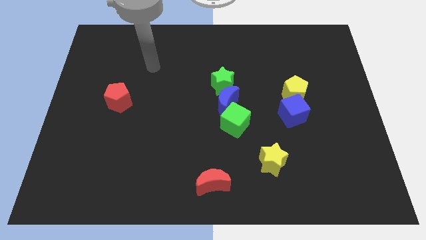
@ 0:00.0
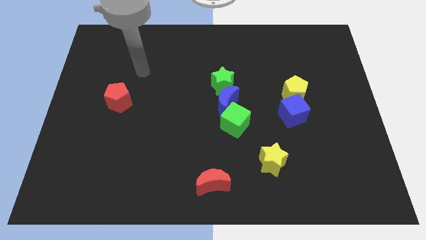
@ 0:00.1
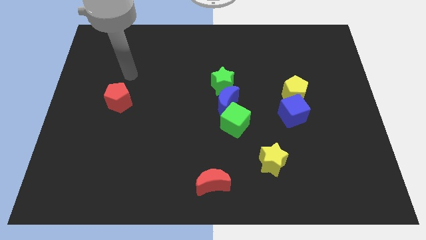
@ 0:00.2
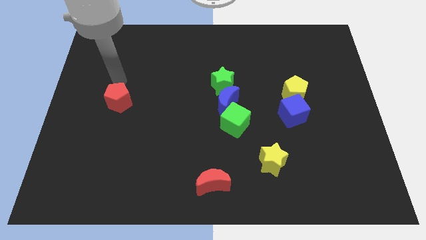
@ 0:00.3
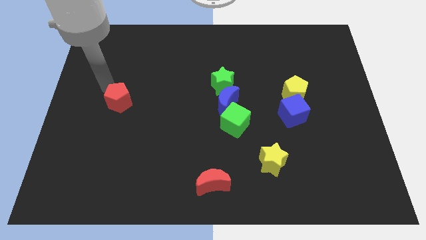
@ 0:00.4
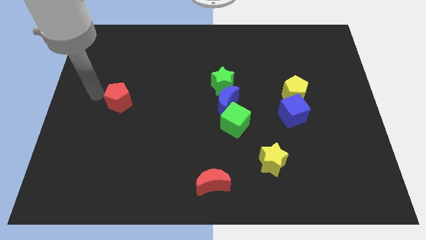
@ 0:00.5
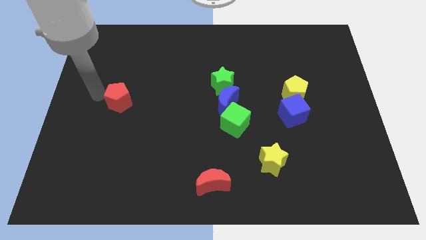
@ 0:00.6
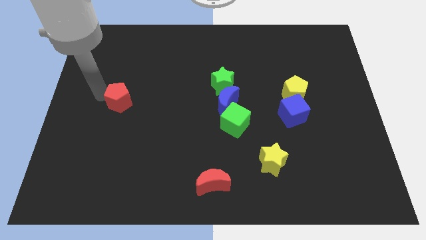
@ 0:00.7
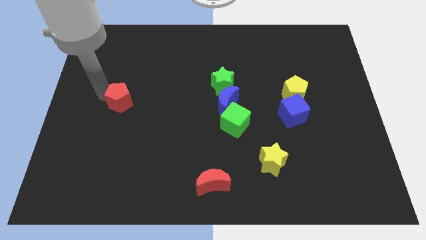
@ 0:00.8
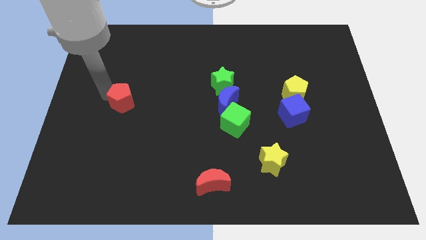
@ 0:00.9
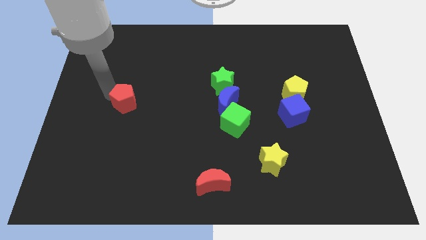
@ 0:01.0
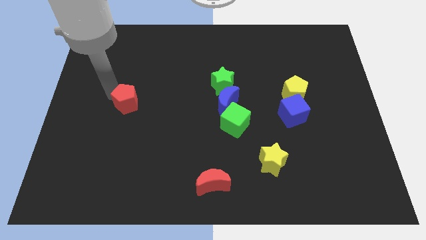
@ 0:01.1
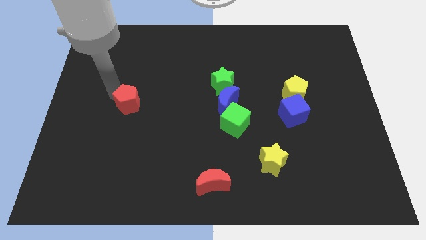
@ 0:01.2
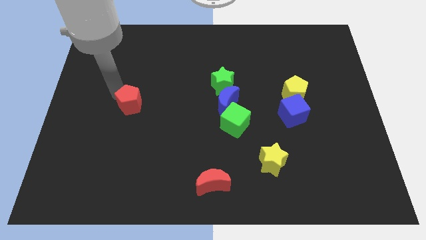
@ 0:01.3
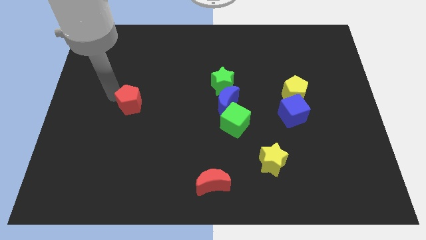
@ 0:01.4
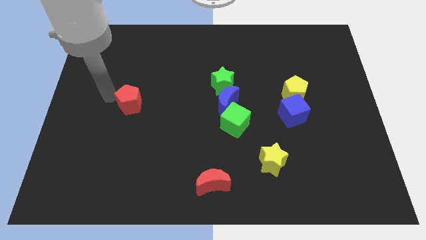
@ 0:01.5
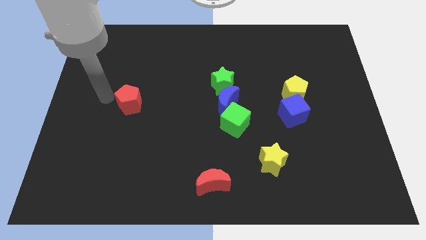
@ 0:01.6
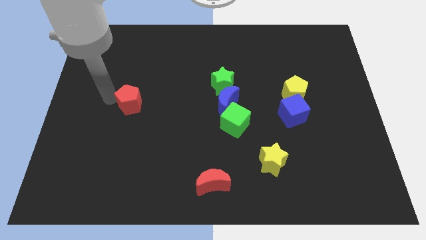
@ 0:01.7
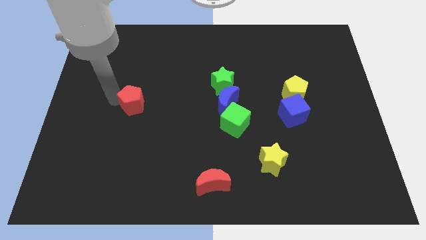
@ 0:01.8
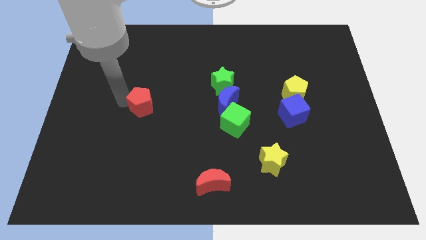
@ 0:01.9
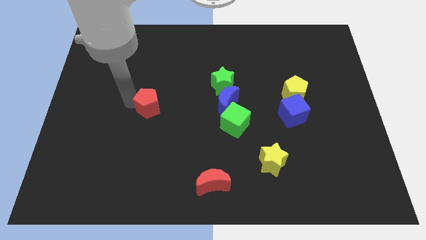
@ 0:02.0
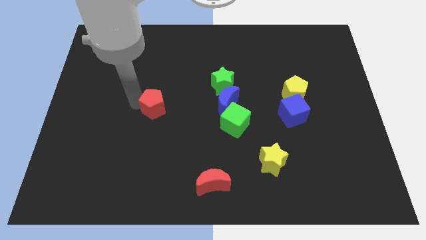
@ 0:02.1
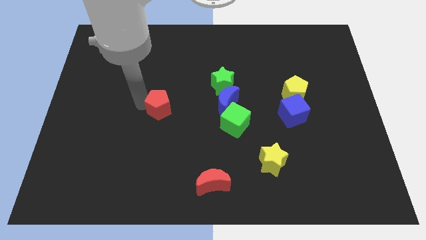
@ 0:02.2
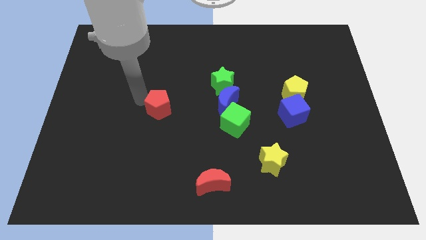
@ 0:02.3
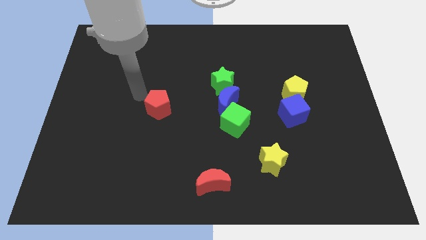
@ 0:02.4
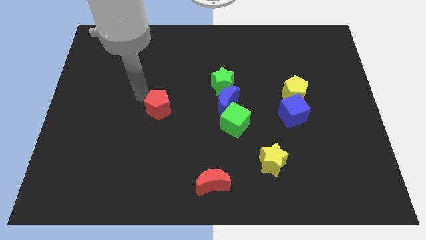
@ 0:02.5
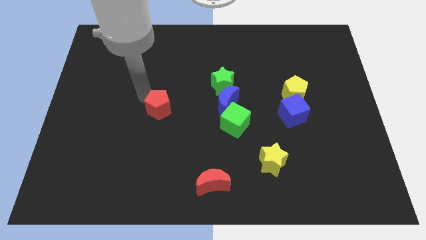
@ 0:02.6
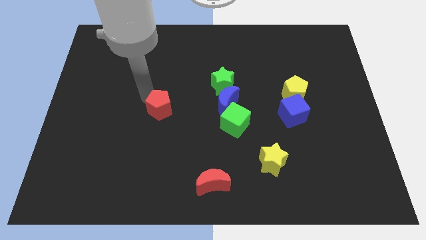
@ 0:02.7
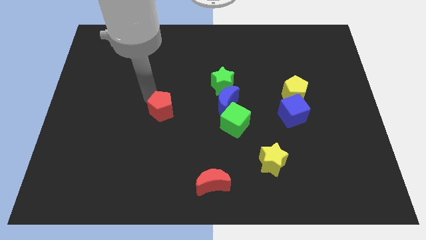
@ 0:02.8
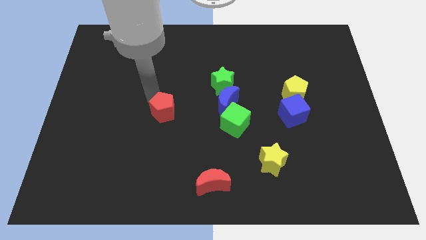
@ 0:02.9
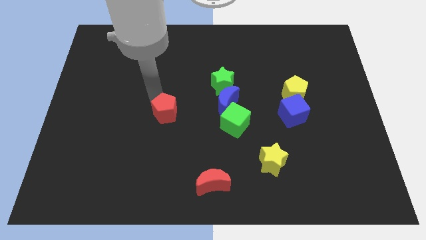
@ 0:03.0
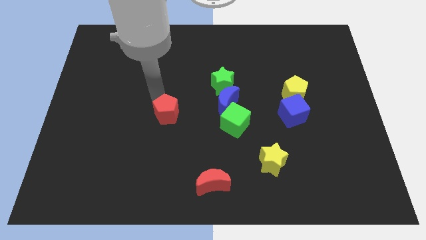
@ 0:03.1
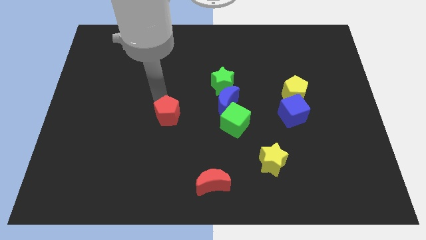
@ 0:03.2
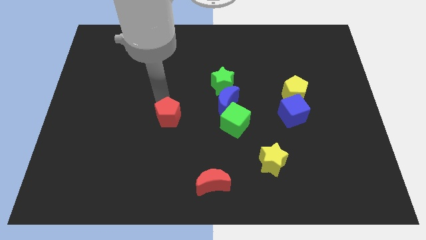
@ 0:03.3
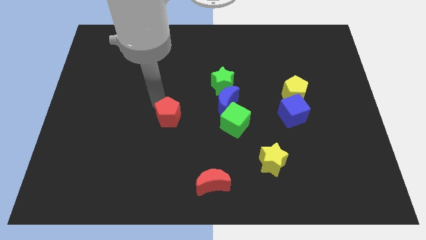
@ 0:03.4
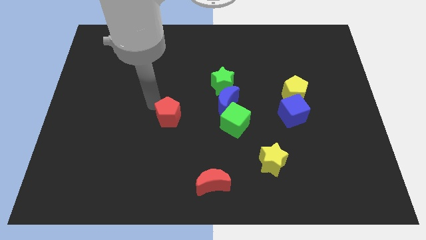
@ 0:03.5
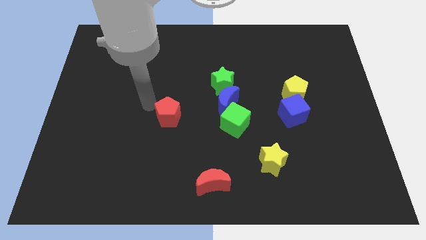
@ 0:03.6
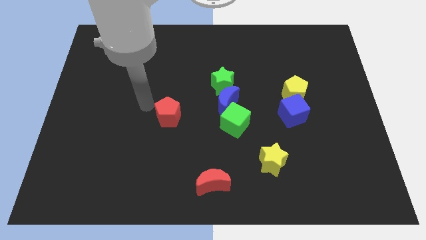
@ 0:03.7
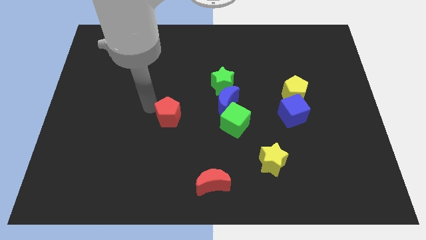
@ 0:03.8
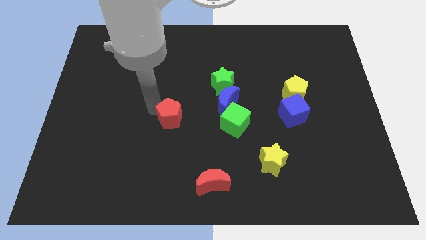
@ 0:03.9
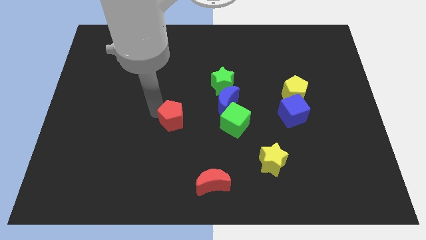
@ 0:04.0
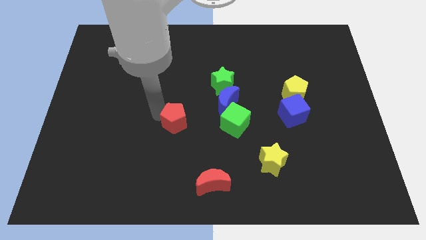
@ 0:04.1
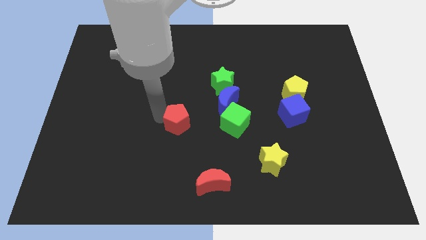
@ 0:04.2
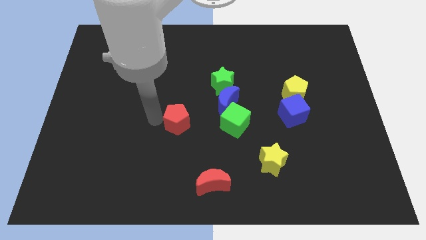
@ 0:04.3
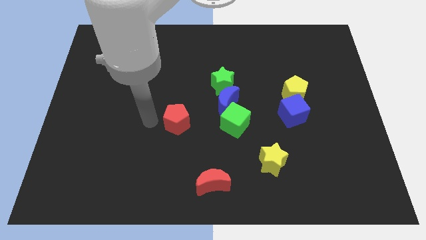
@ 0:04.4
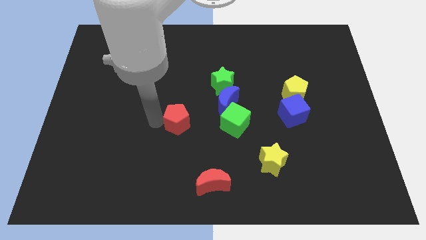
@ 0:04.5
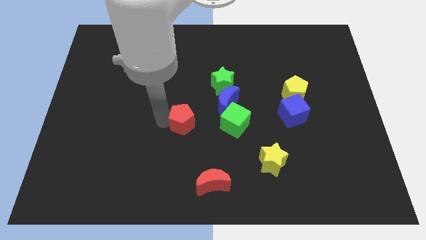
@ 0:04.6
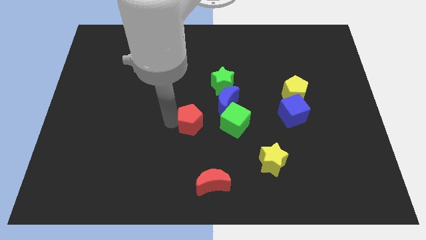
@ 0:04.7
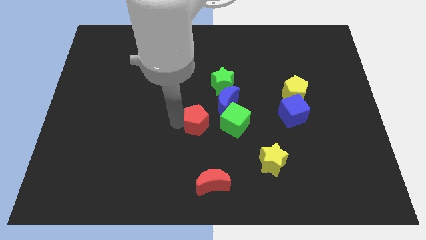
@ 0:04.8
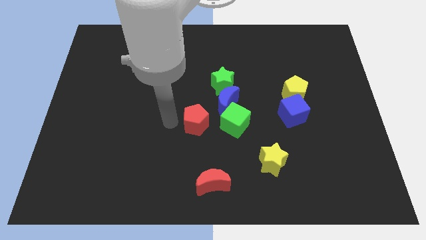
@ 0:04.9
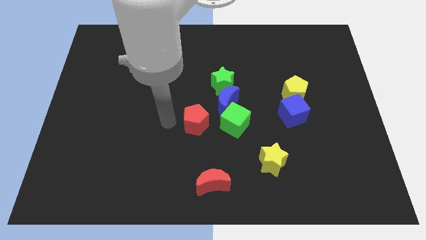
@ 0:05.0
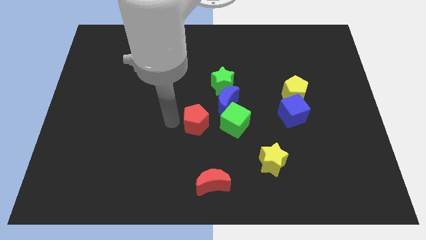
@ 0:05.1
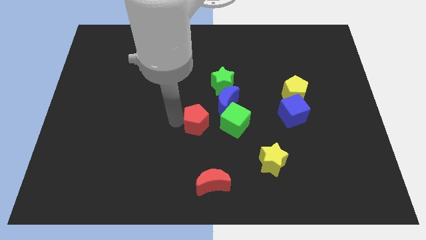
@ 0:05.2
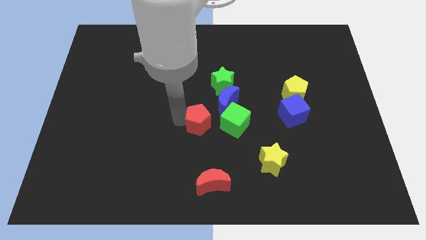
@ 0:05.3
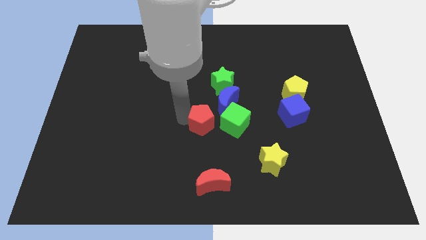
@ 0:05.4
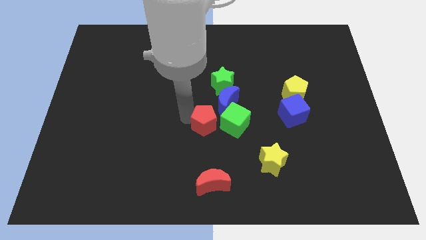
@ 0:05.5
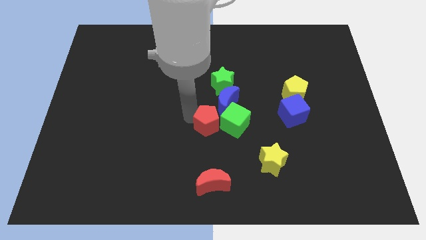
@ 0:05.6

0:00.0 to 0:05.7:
slide the red pentagon close to the green cube

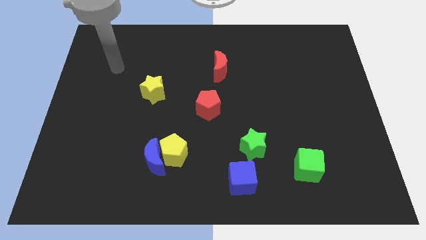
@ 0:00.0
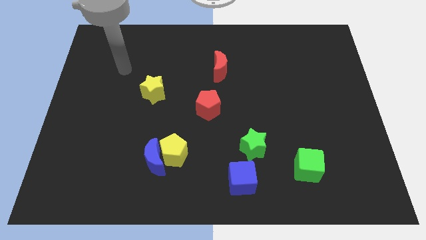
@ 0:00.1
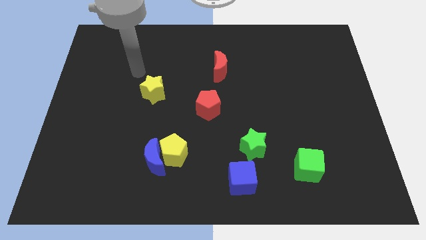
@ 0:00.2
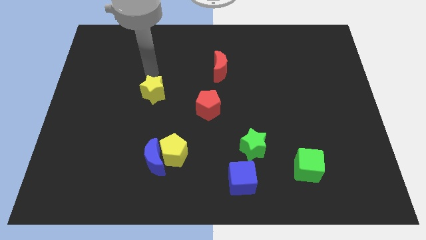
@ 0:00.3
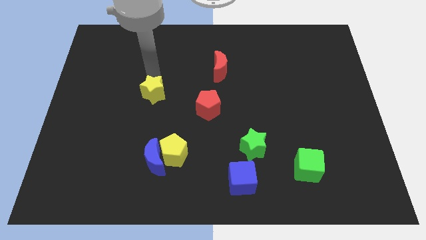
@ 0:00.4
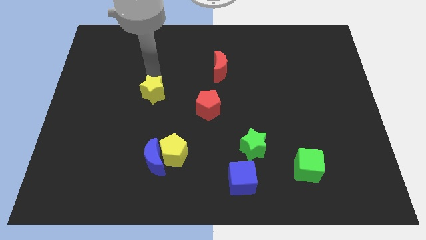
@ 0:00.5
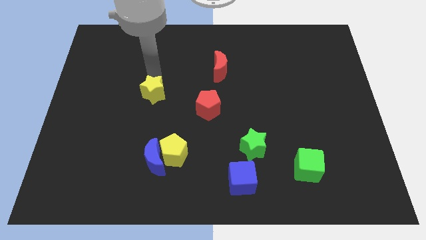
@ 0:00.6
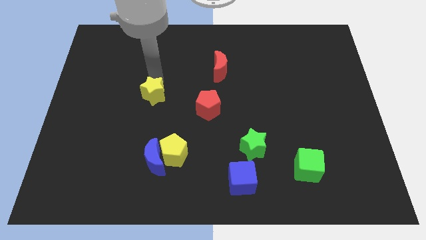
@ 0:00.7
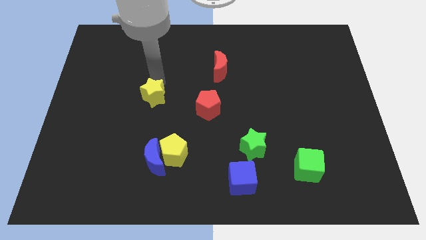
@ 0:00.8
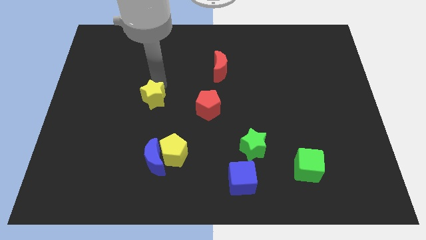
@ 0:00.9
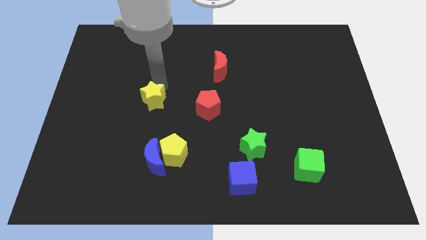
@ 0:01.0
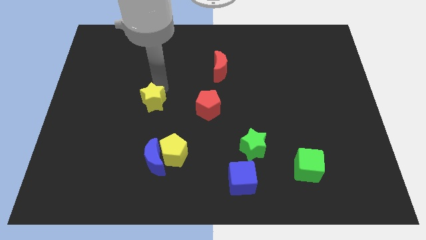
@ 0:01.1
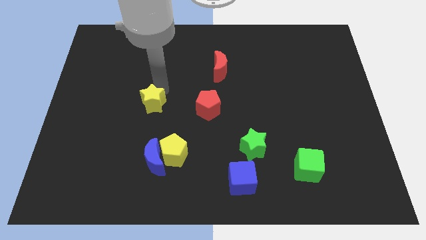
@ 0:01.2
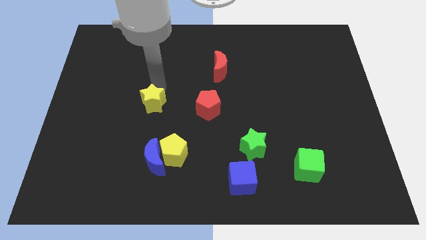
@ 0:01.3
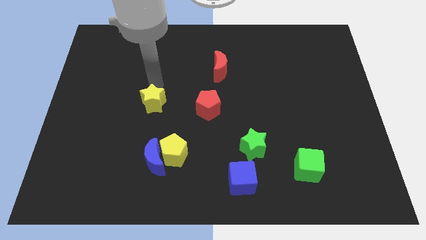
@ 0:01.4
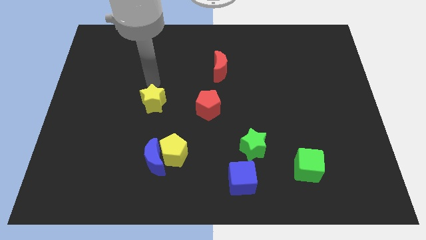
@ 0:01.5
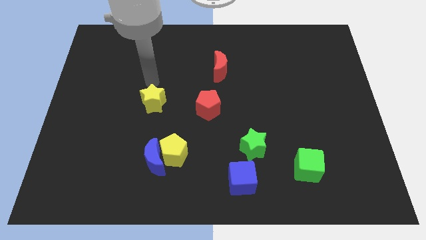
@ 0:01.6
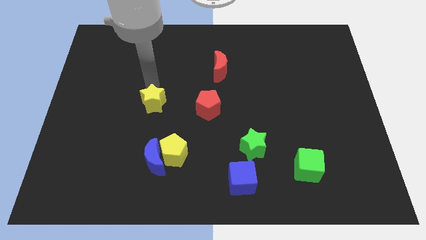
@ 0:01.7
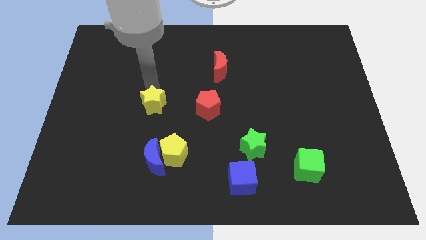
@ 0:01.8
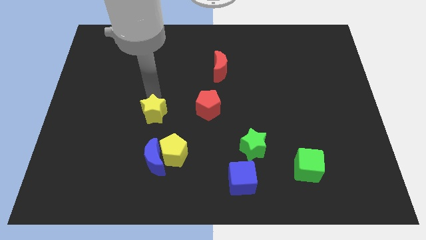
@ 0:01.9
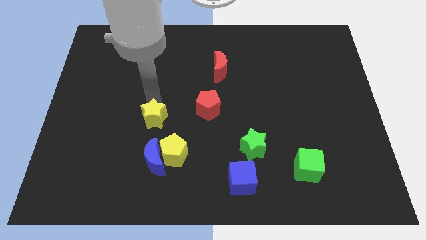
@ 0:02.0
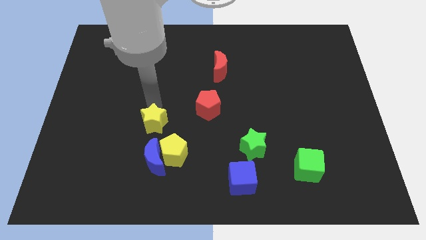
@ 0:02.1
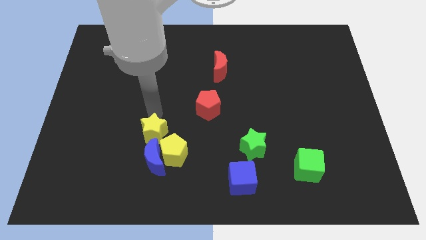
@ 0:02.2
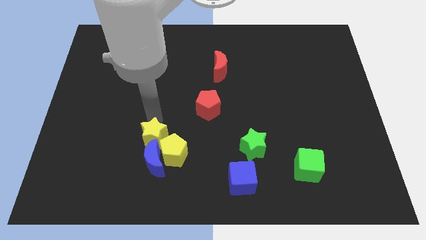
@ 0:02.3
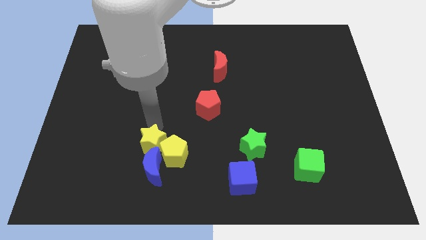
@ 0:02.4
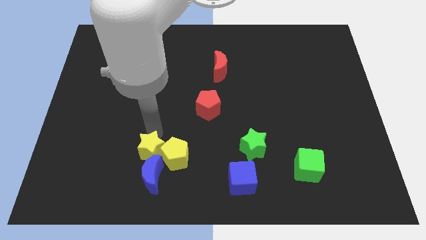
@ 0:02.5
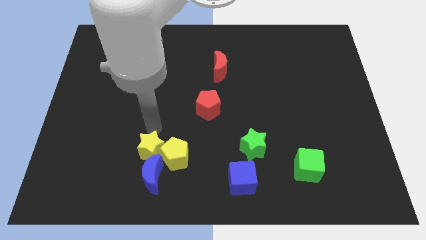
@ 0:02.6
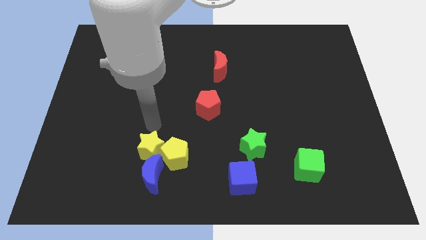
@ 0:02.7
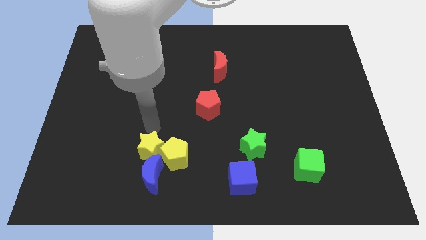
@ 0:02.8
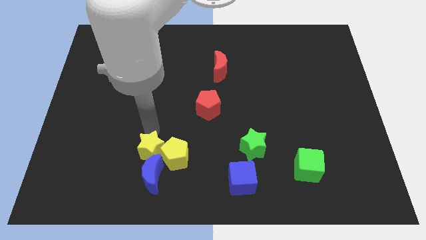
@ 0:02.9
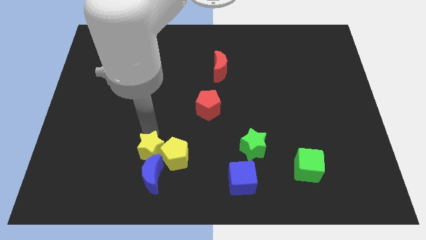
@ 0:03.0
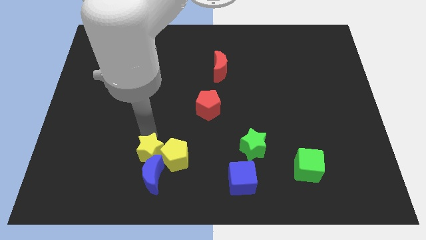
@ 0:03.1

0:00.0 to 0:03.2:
move the yellow star towards the blue moon
